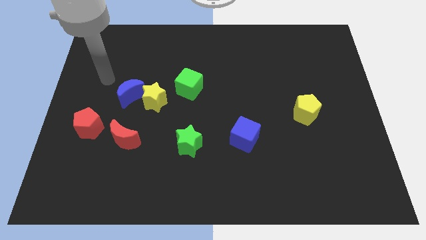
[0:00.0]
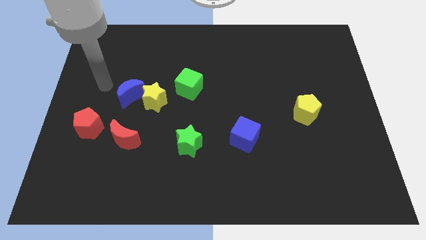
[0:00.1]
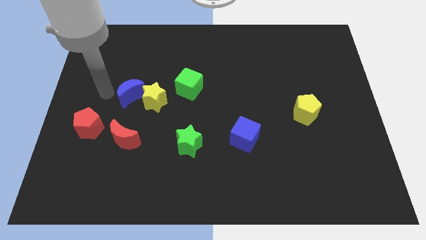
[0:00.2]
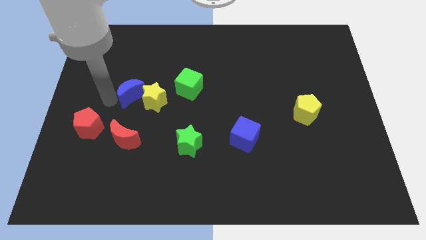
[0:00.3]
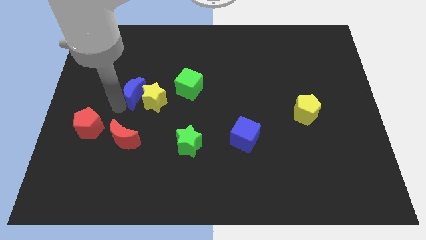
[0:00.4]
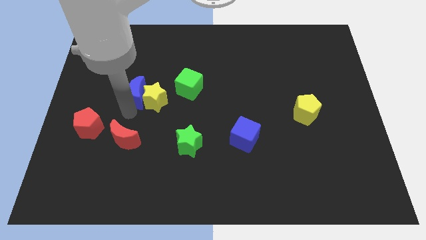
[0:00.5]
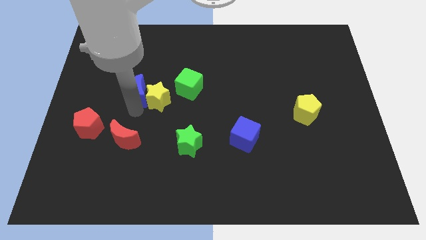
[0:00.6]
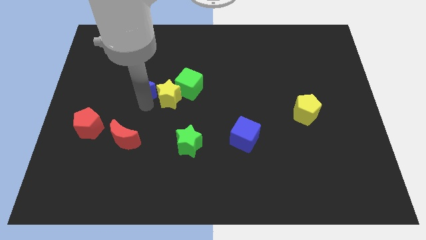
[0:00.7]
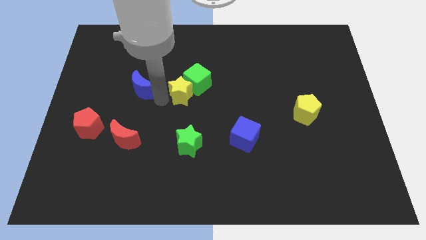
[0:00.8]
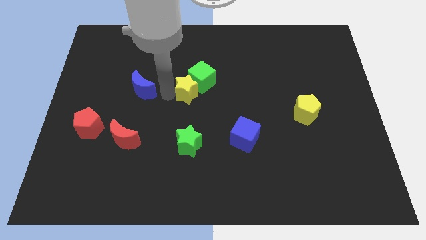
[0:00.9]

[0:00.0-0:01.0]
pull the blue moon apart from the yellow star

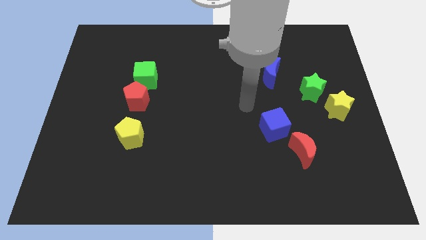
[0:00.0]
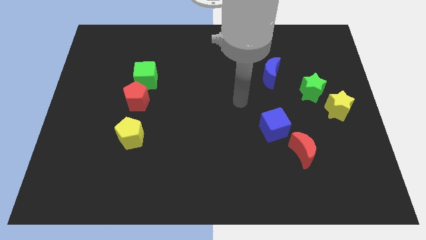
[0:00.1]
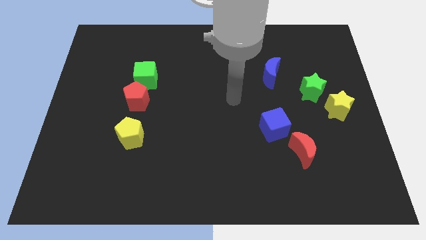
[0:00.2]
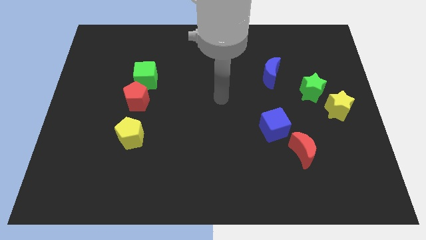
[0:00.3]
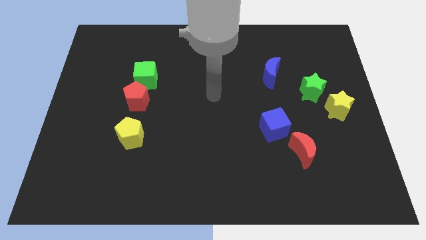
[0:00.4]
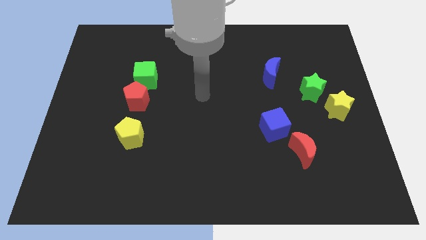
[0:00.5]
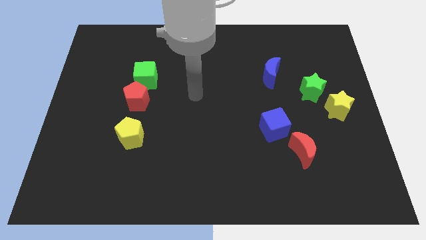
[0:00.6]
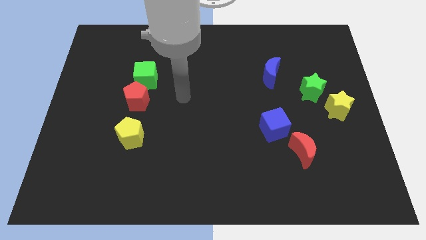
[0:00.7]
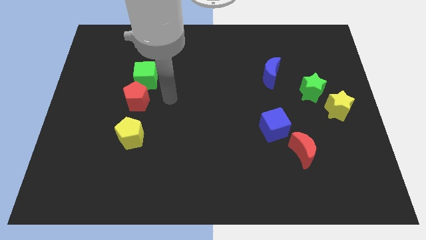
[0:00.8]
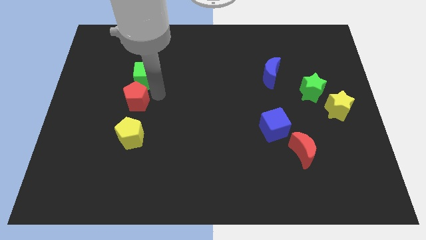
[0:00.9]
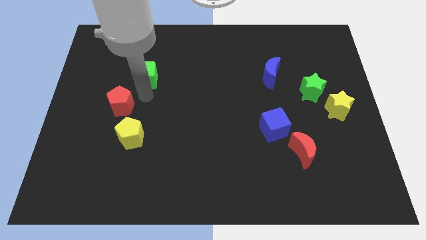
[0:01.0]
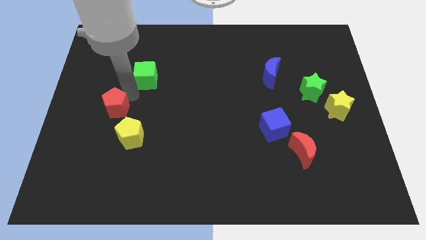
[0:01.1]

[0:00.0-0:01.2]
pull the green cube apart from the red pentagon

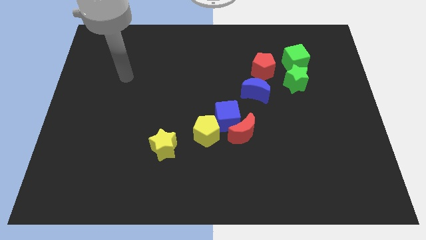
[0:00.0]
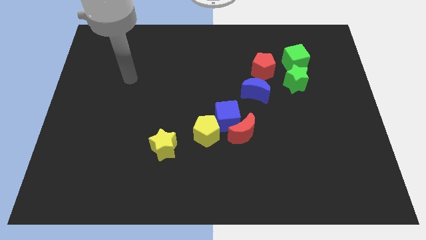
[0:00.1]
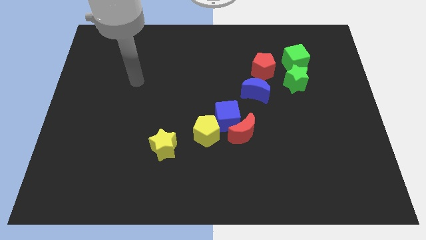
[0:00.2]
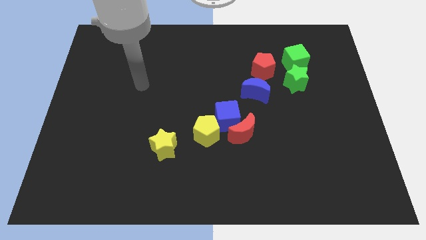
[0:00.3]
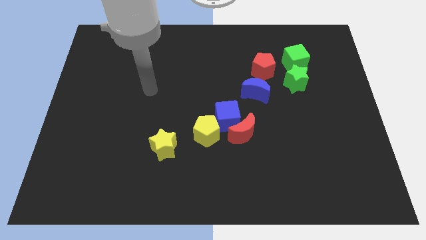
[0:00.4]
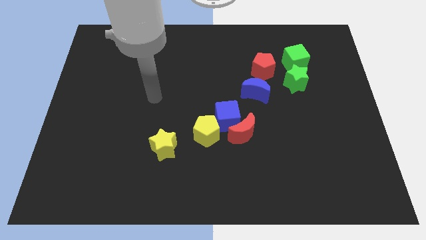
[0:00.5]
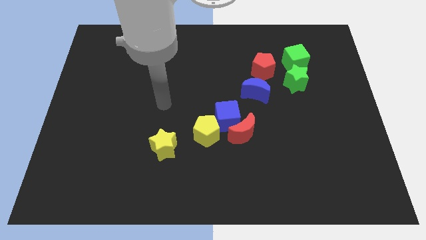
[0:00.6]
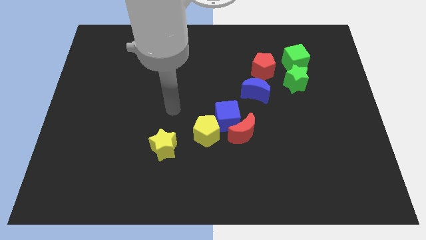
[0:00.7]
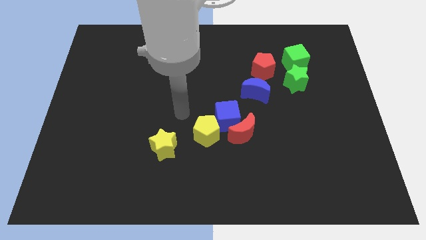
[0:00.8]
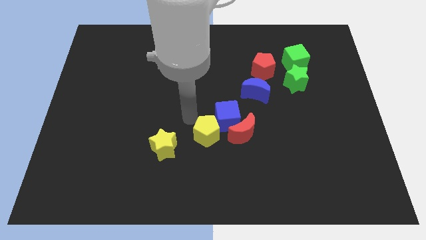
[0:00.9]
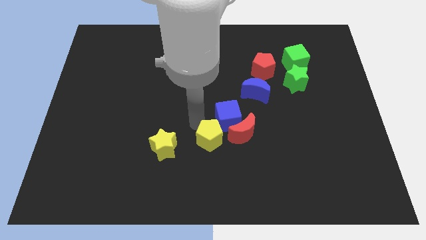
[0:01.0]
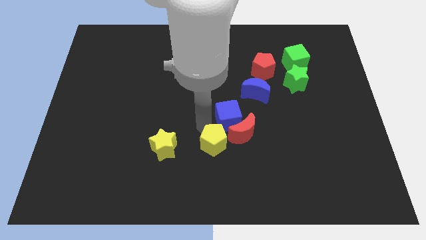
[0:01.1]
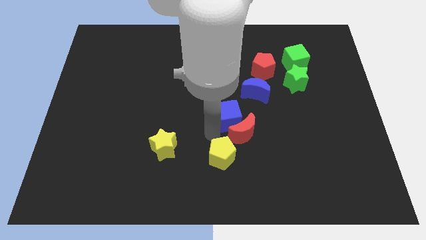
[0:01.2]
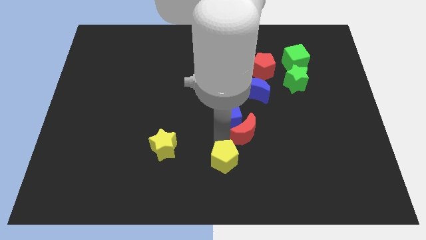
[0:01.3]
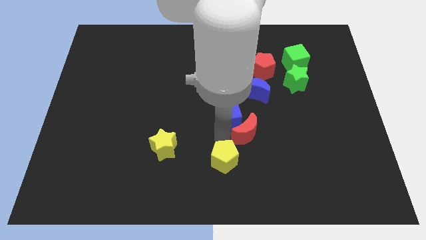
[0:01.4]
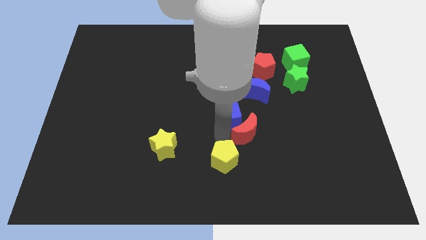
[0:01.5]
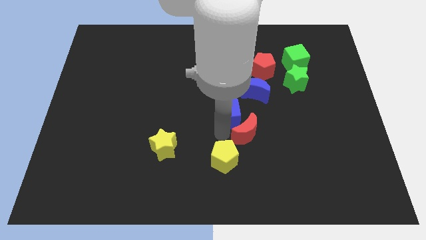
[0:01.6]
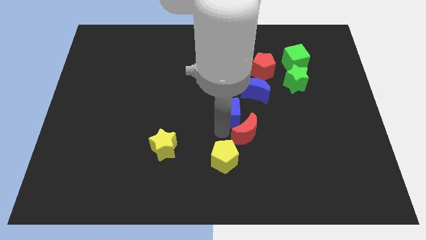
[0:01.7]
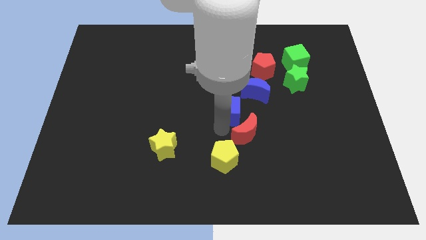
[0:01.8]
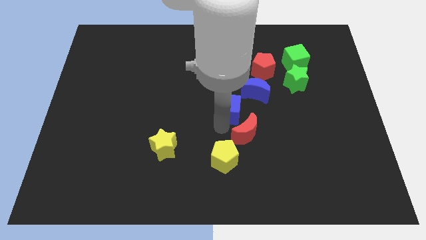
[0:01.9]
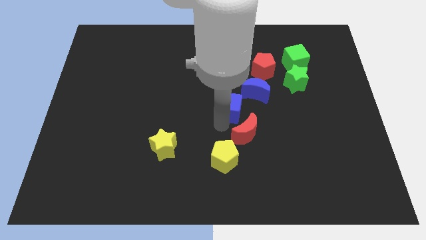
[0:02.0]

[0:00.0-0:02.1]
move the blue cube away from the red moon and yellow pentagon

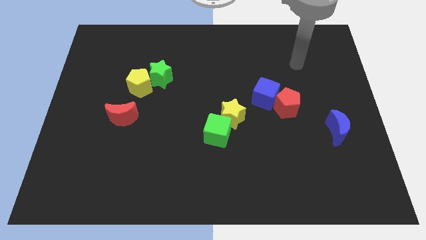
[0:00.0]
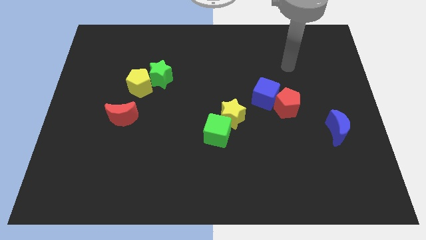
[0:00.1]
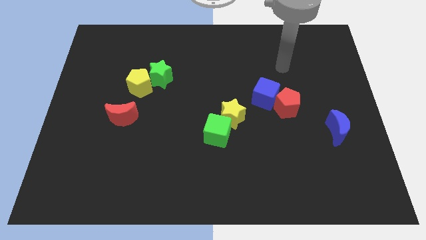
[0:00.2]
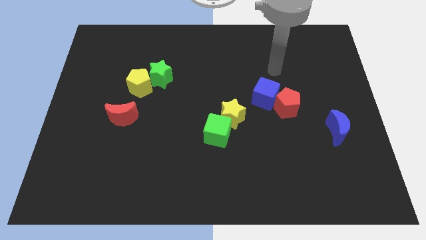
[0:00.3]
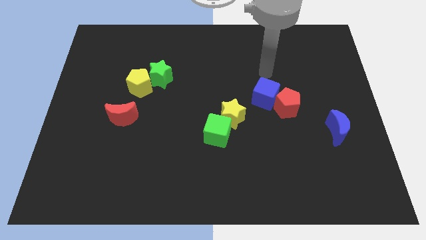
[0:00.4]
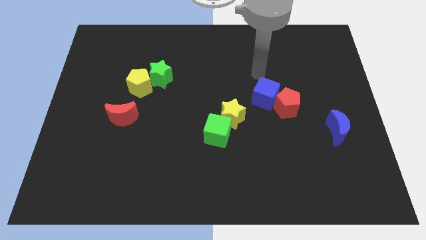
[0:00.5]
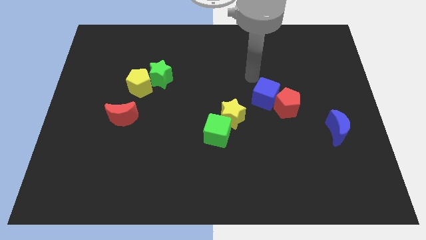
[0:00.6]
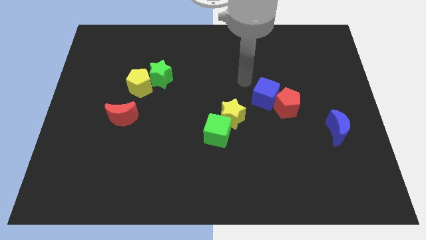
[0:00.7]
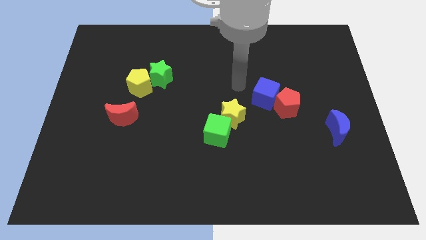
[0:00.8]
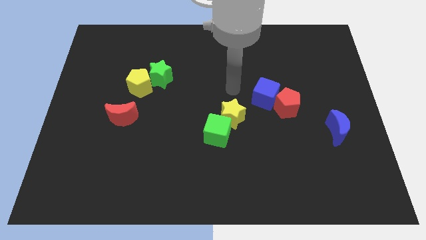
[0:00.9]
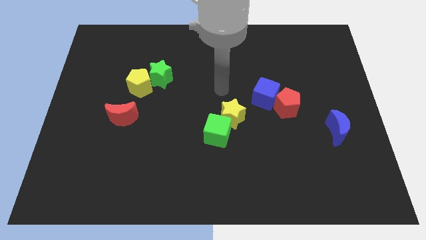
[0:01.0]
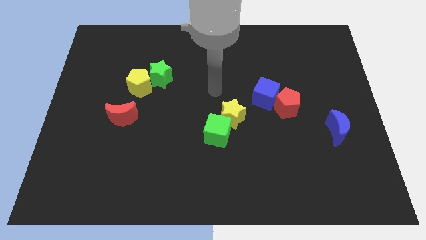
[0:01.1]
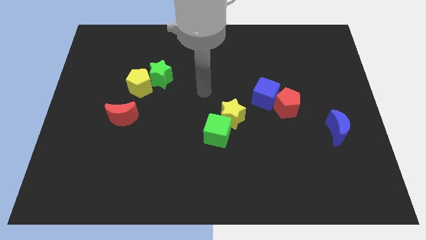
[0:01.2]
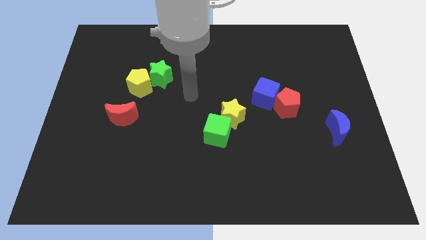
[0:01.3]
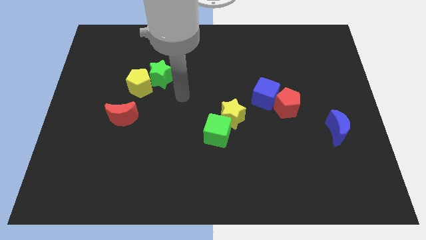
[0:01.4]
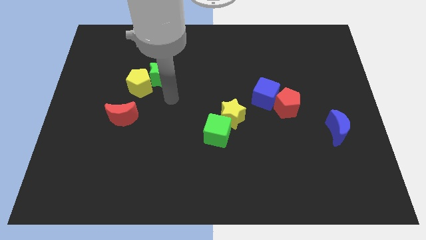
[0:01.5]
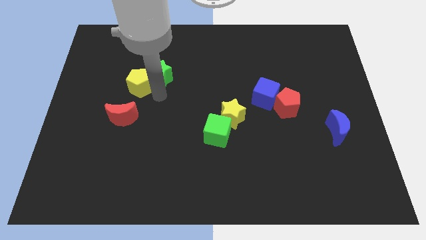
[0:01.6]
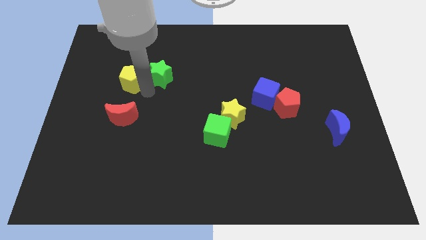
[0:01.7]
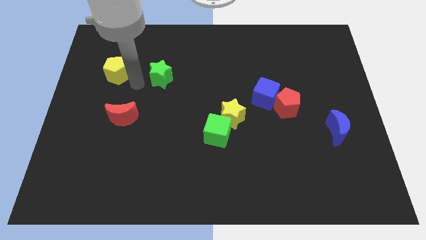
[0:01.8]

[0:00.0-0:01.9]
separate the green star from the yellow pentagon

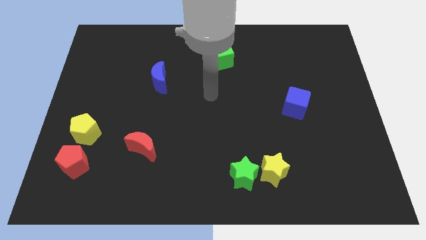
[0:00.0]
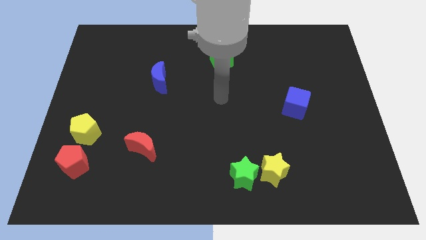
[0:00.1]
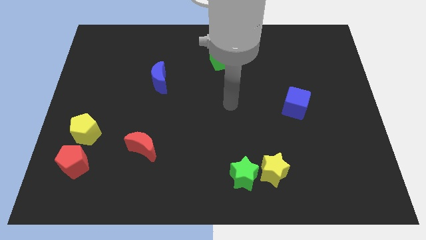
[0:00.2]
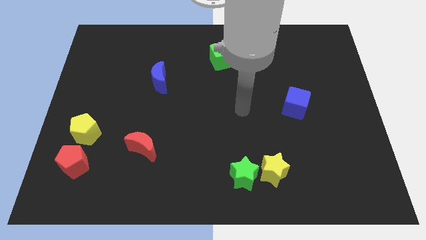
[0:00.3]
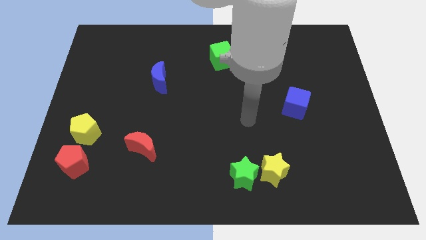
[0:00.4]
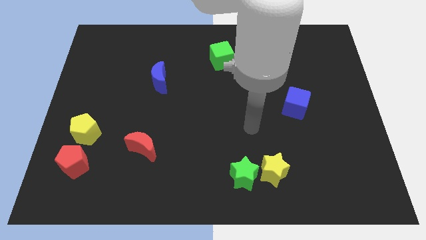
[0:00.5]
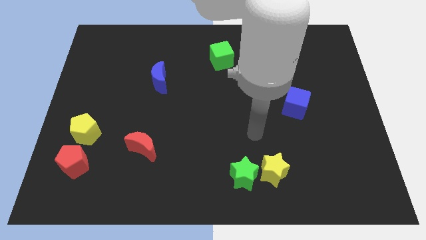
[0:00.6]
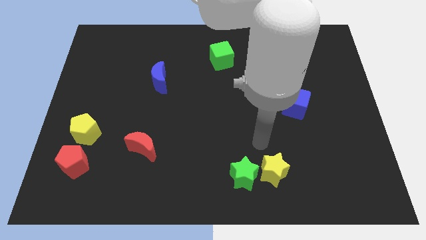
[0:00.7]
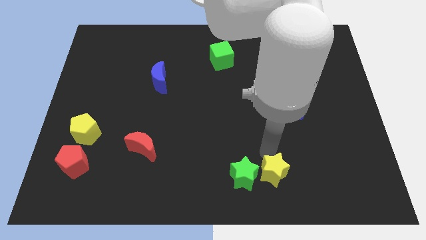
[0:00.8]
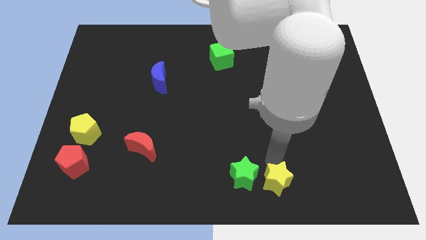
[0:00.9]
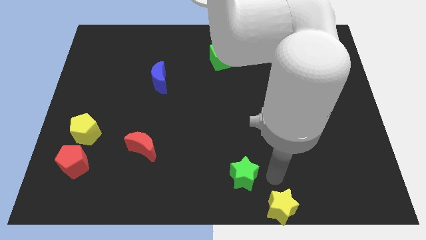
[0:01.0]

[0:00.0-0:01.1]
separate the green star from the yellow star

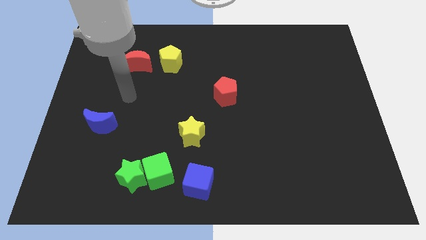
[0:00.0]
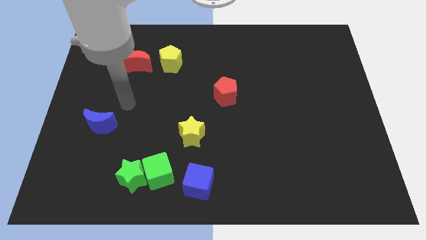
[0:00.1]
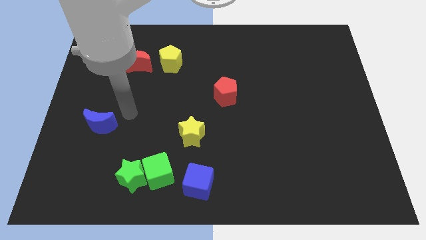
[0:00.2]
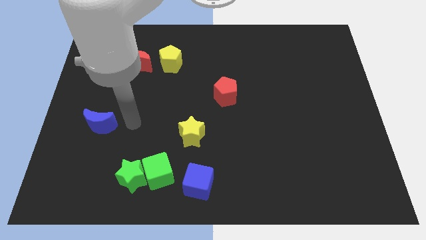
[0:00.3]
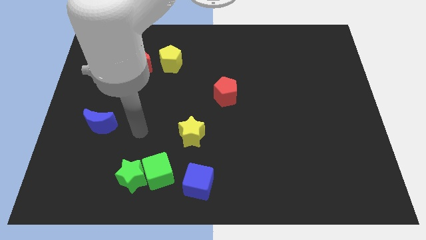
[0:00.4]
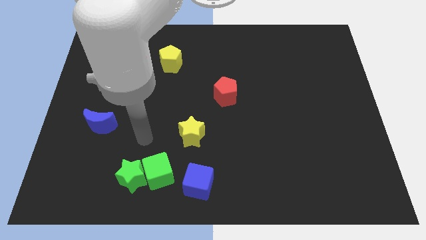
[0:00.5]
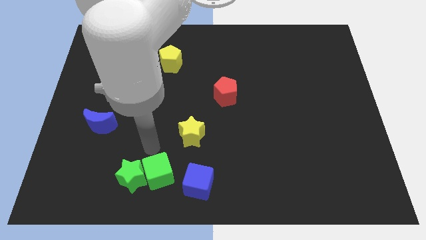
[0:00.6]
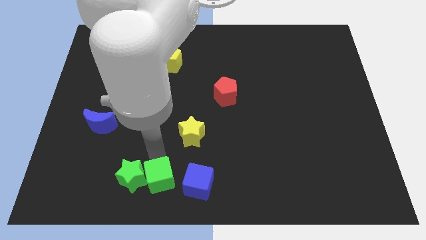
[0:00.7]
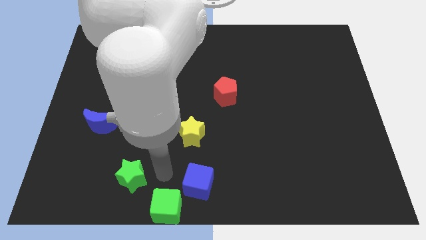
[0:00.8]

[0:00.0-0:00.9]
move the green star away from the green cube

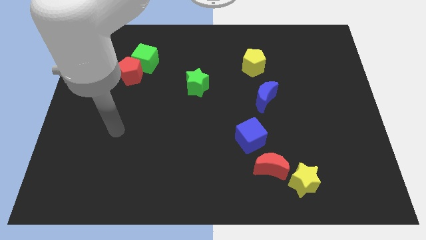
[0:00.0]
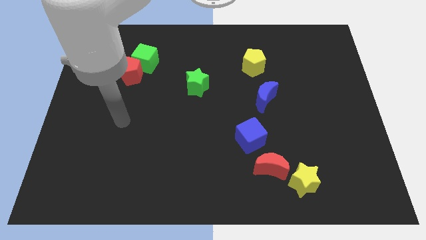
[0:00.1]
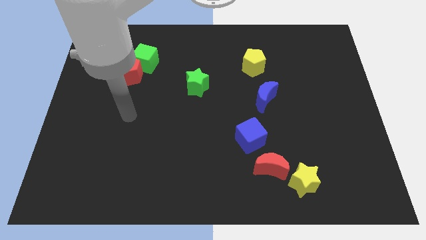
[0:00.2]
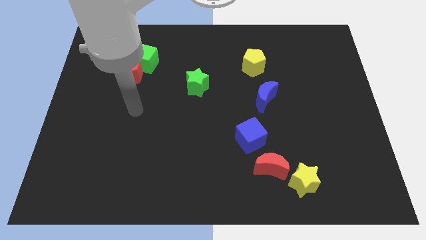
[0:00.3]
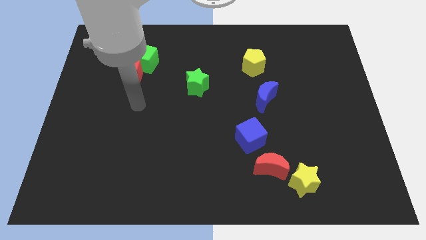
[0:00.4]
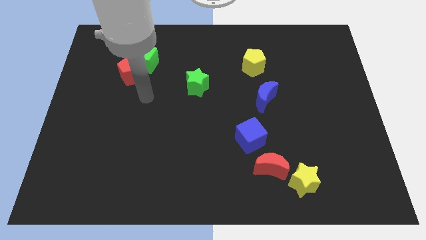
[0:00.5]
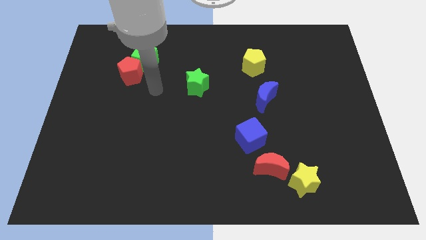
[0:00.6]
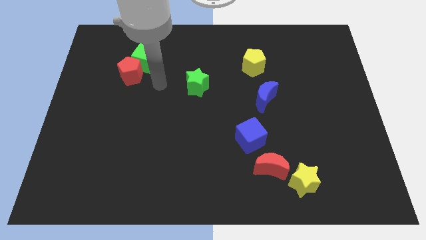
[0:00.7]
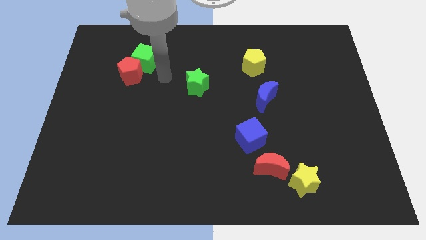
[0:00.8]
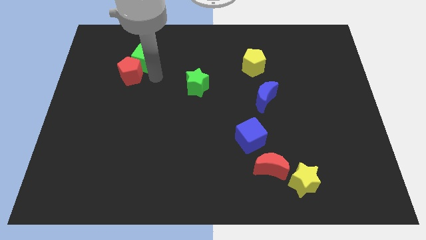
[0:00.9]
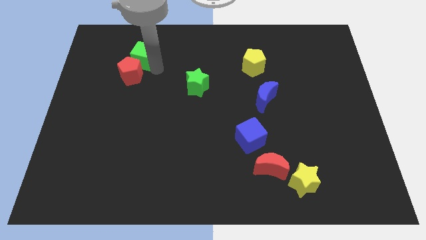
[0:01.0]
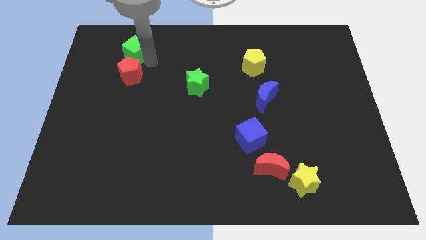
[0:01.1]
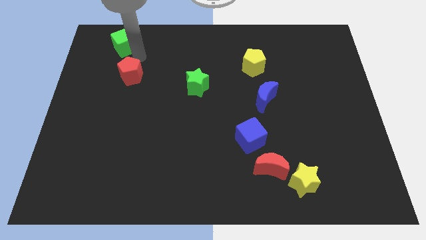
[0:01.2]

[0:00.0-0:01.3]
pull the red pentagon apart from the green cube
